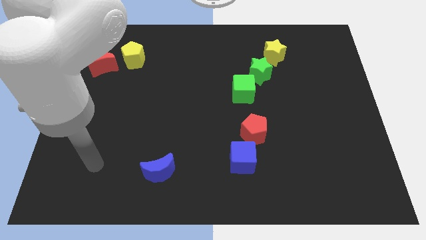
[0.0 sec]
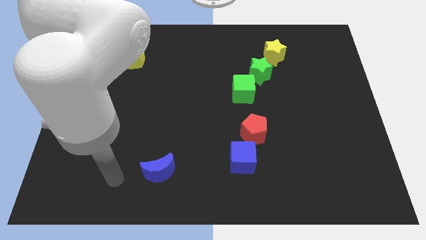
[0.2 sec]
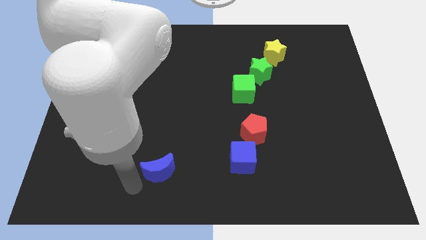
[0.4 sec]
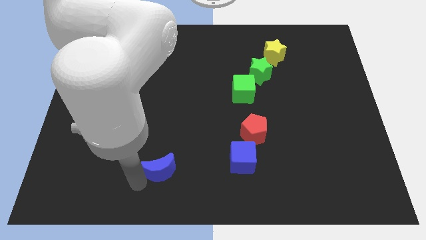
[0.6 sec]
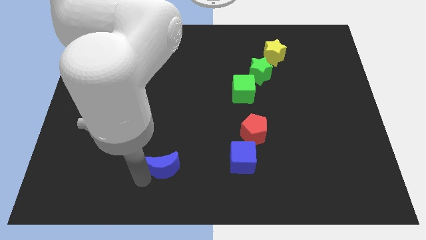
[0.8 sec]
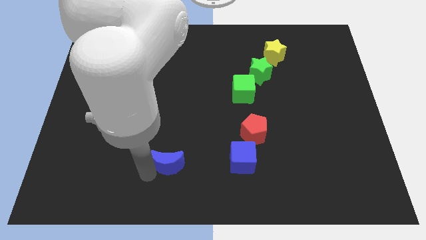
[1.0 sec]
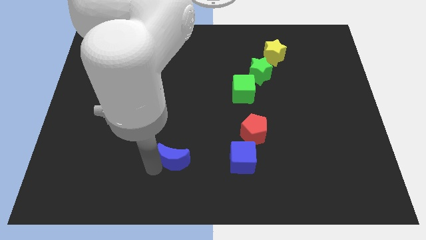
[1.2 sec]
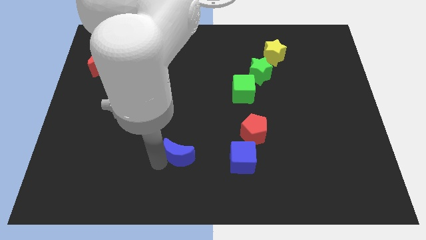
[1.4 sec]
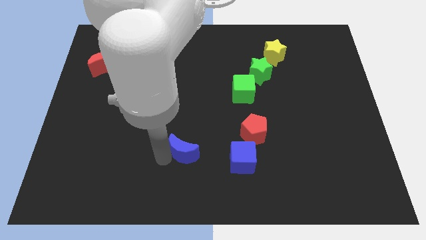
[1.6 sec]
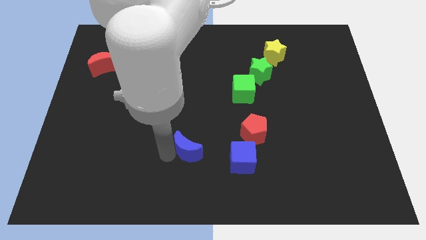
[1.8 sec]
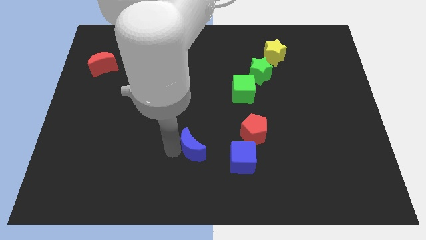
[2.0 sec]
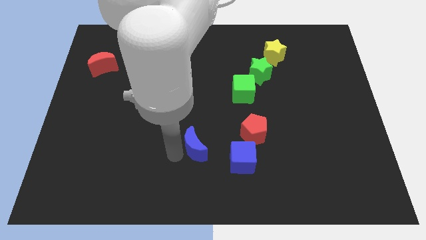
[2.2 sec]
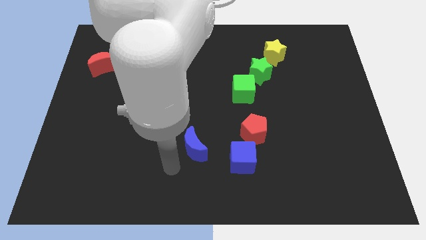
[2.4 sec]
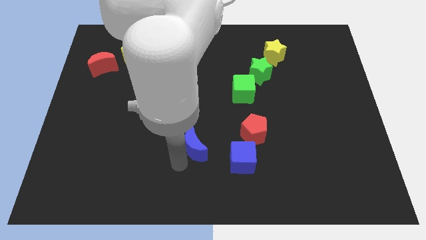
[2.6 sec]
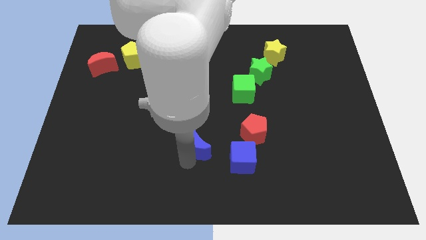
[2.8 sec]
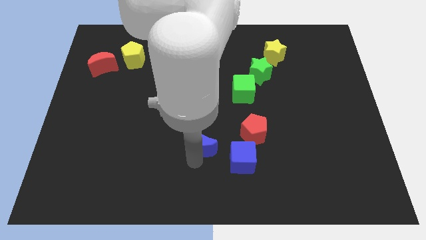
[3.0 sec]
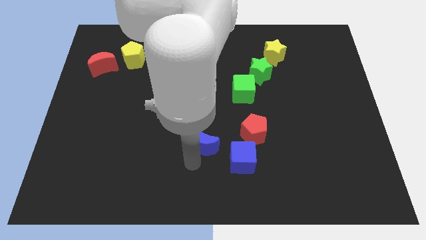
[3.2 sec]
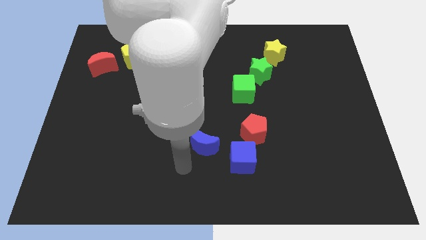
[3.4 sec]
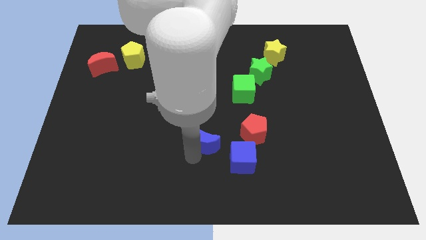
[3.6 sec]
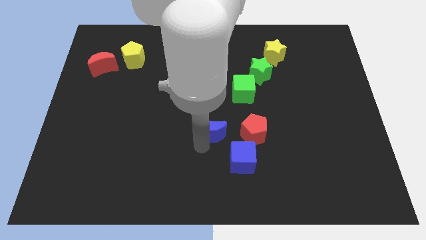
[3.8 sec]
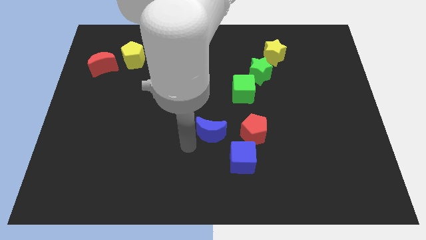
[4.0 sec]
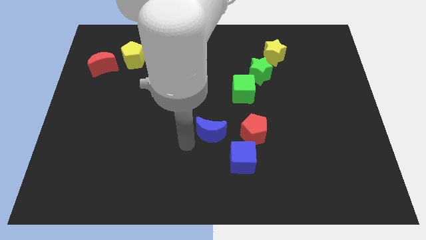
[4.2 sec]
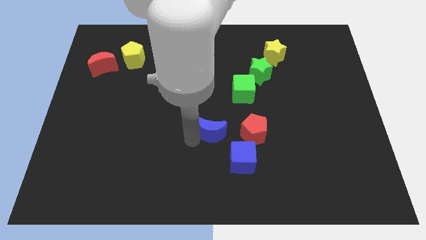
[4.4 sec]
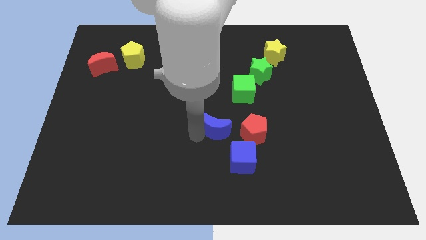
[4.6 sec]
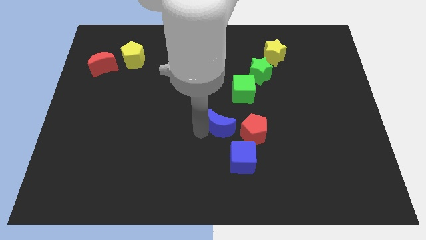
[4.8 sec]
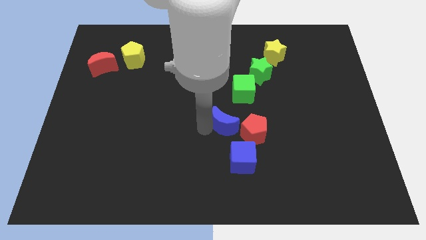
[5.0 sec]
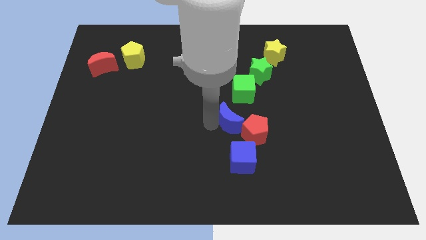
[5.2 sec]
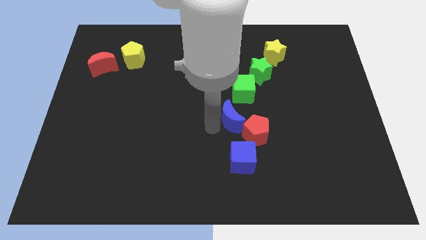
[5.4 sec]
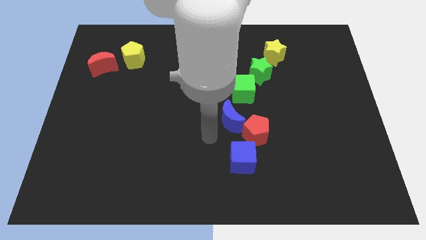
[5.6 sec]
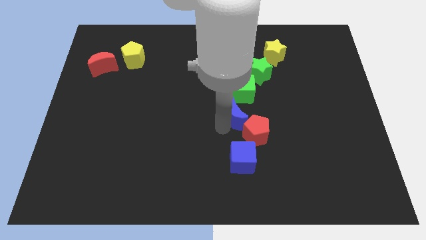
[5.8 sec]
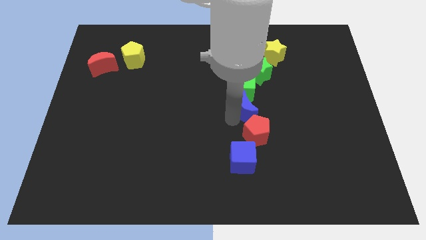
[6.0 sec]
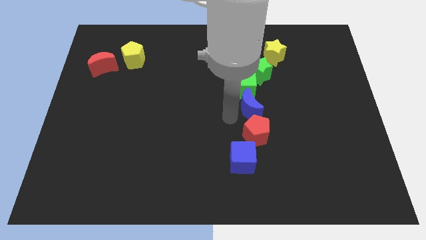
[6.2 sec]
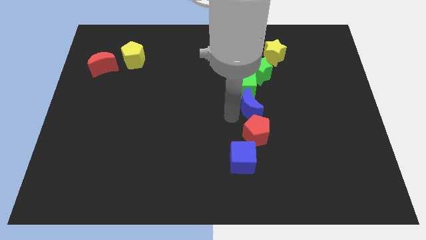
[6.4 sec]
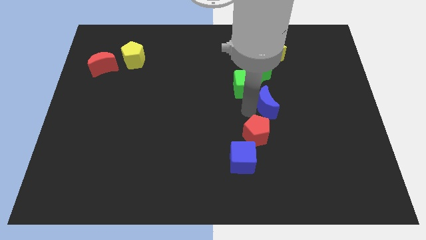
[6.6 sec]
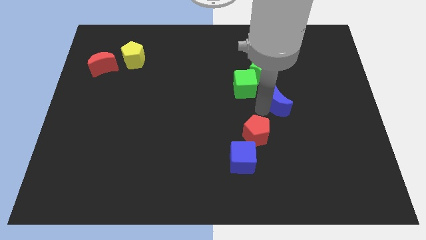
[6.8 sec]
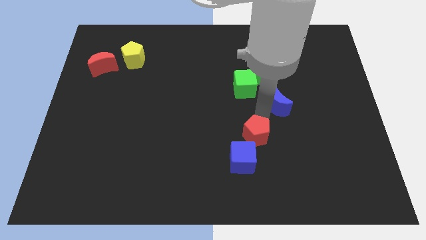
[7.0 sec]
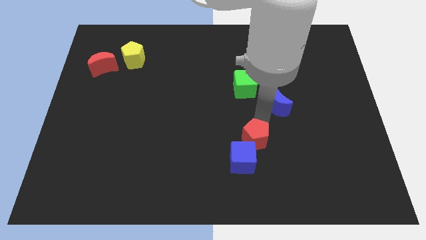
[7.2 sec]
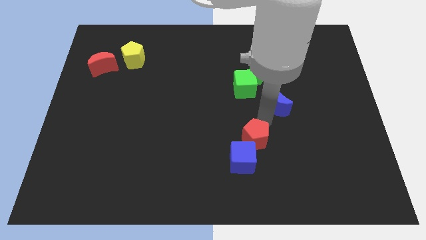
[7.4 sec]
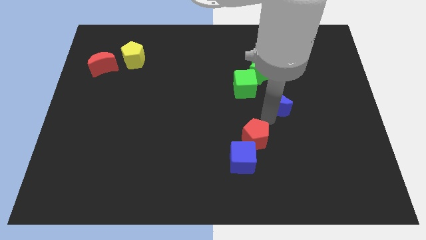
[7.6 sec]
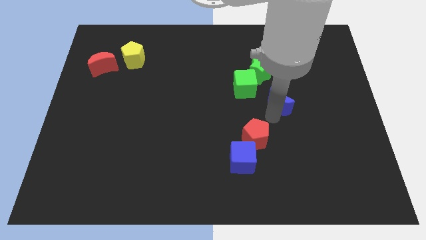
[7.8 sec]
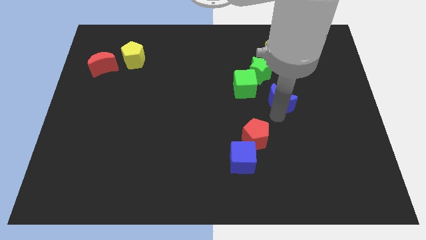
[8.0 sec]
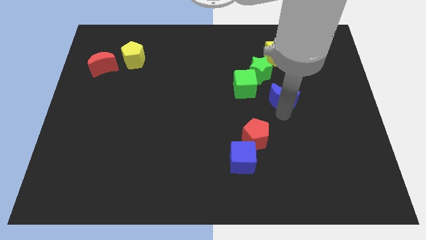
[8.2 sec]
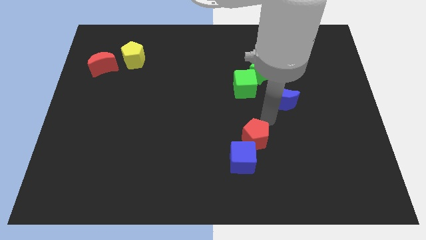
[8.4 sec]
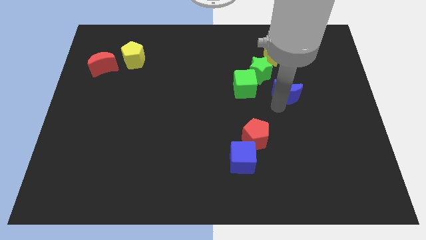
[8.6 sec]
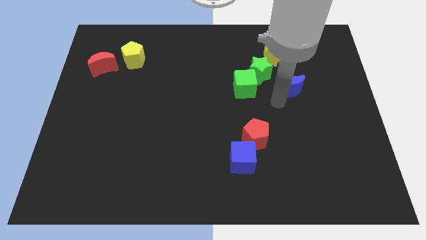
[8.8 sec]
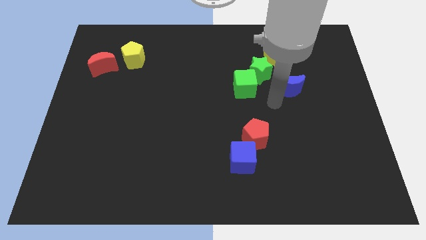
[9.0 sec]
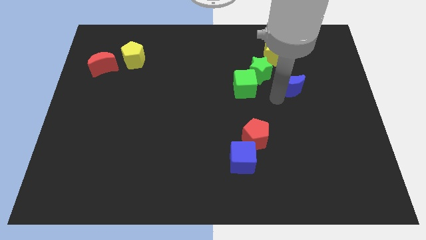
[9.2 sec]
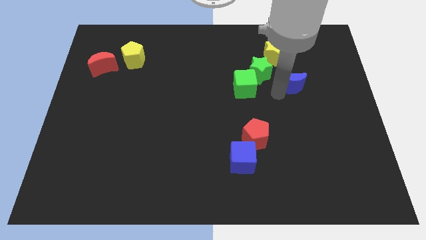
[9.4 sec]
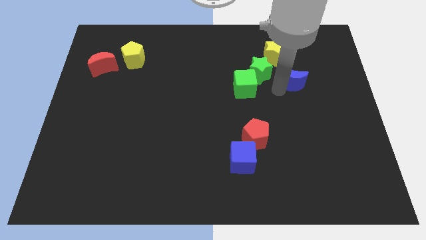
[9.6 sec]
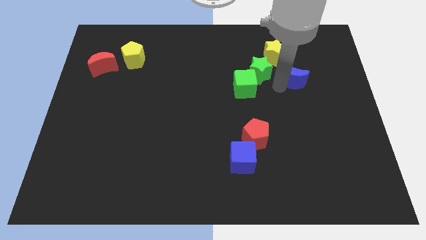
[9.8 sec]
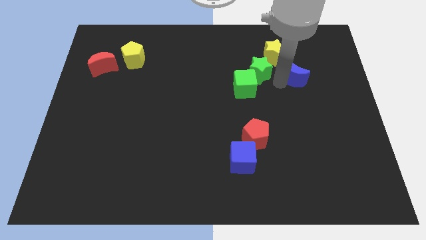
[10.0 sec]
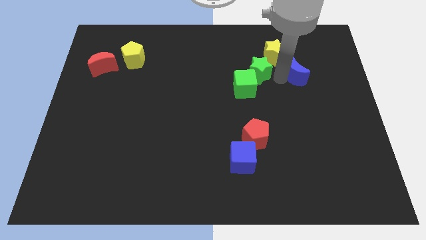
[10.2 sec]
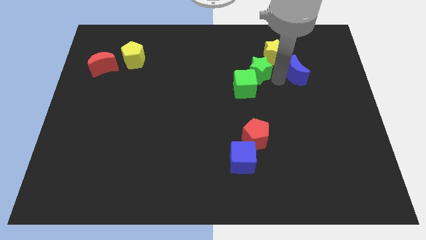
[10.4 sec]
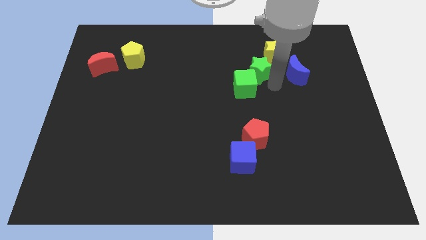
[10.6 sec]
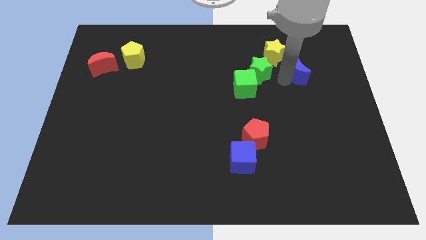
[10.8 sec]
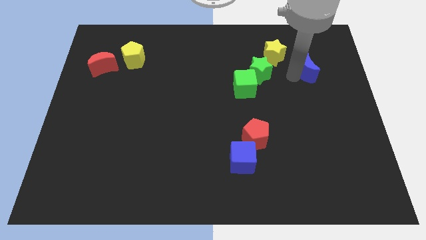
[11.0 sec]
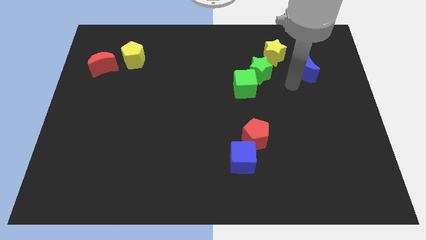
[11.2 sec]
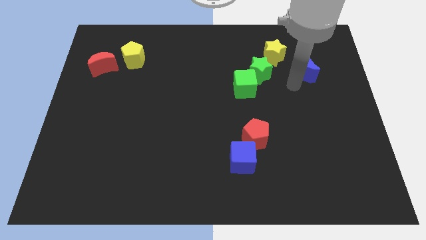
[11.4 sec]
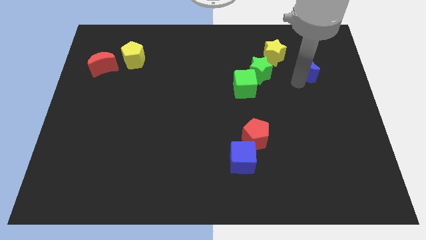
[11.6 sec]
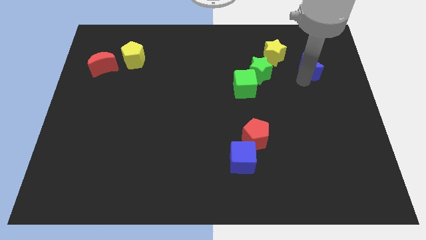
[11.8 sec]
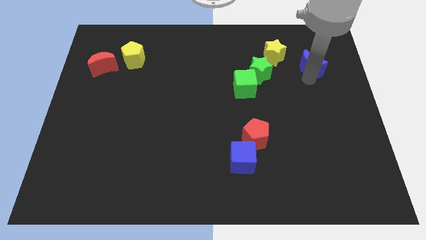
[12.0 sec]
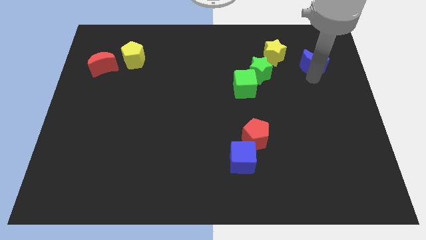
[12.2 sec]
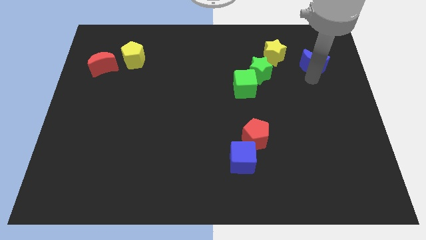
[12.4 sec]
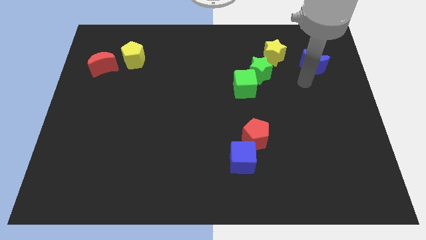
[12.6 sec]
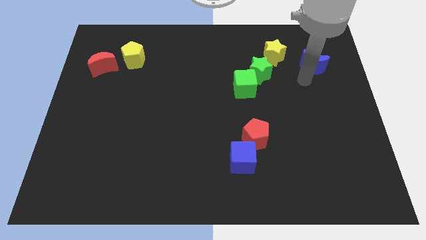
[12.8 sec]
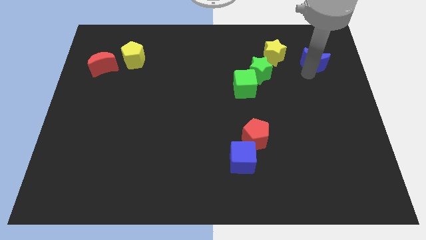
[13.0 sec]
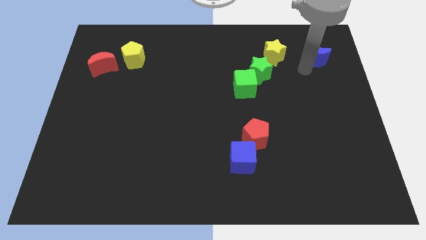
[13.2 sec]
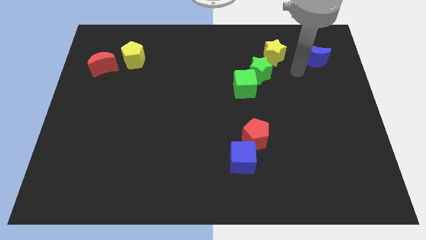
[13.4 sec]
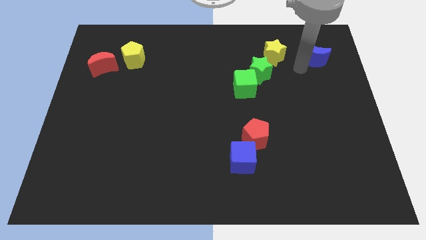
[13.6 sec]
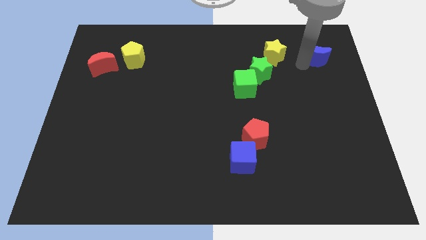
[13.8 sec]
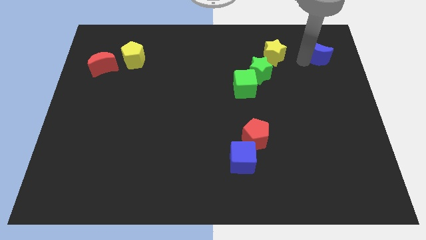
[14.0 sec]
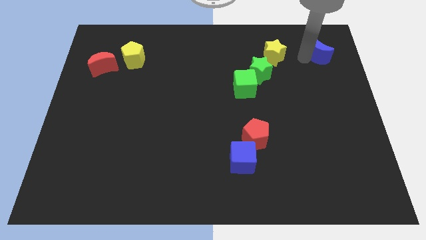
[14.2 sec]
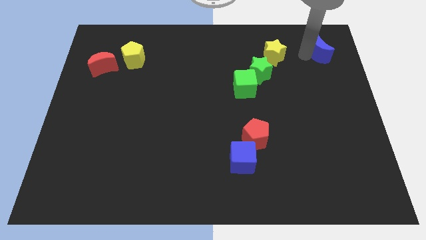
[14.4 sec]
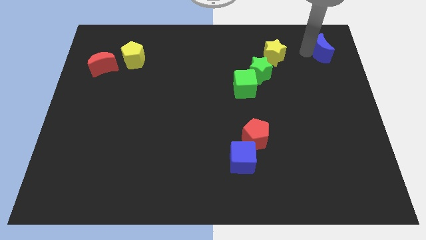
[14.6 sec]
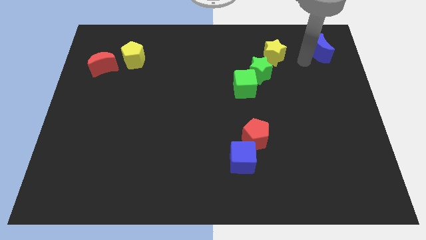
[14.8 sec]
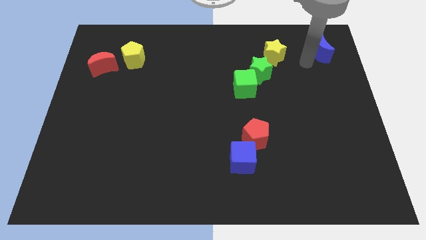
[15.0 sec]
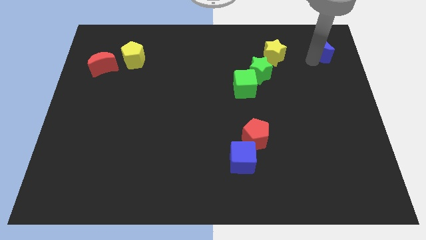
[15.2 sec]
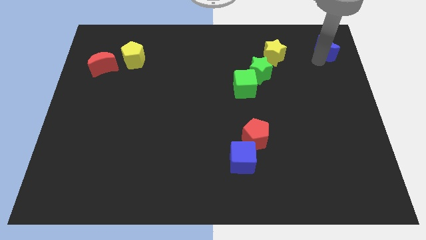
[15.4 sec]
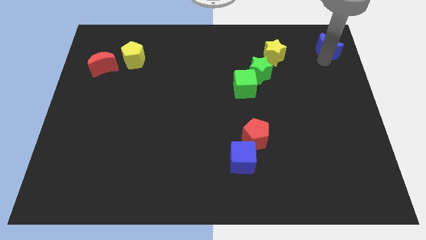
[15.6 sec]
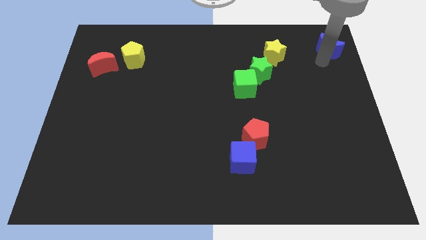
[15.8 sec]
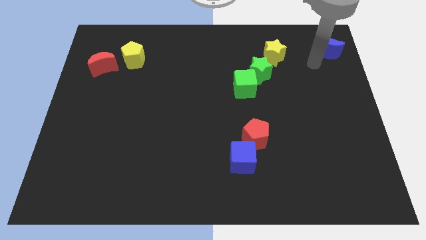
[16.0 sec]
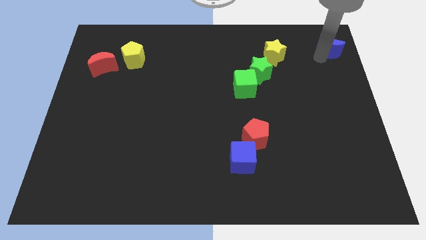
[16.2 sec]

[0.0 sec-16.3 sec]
slide the blue moon to the top right

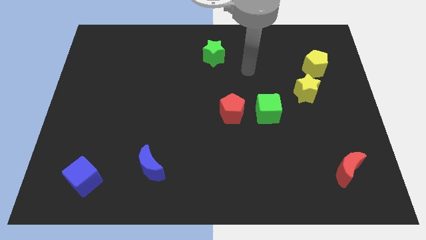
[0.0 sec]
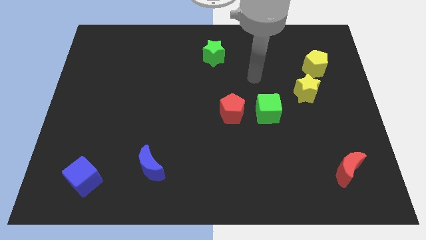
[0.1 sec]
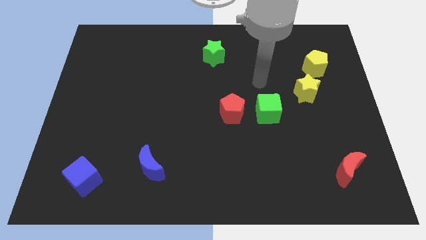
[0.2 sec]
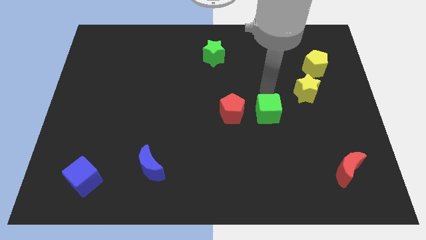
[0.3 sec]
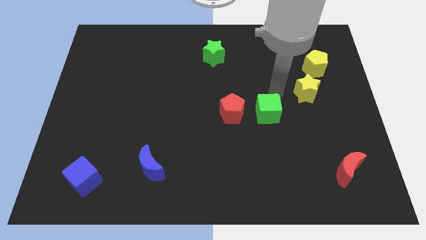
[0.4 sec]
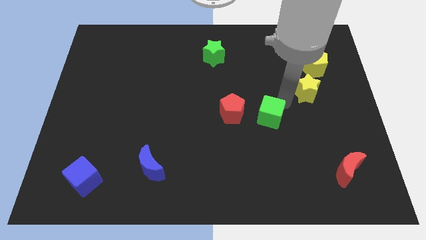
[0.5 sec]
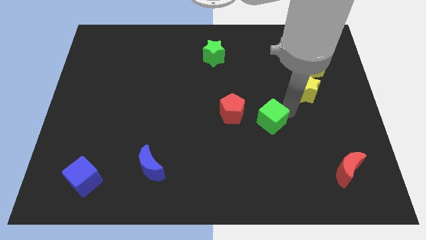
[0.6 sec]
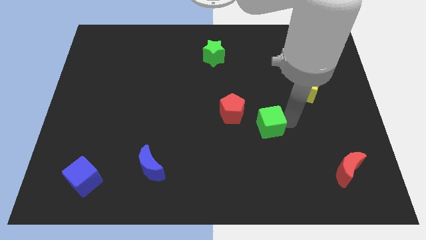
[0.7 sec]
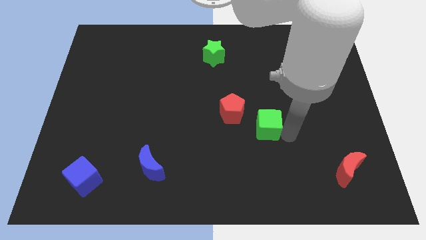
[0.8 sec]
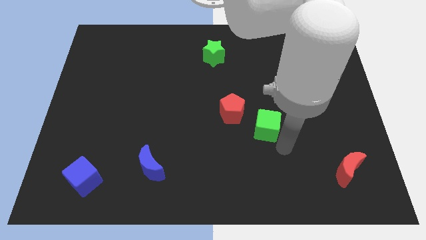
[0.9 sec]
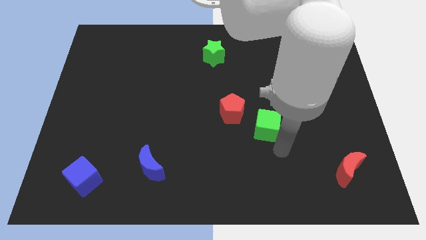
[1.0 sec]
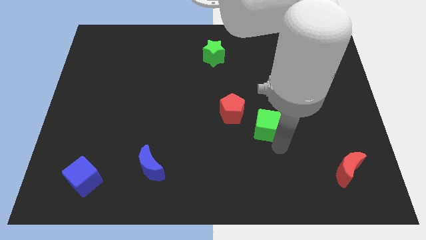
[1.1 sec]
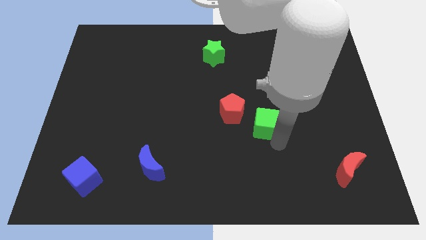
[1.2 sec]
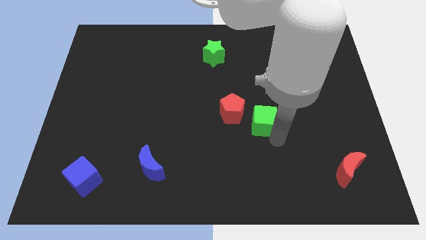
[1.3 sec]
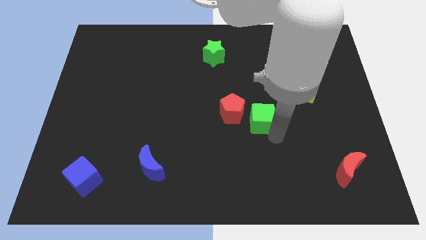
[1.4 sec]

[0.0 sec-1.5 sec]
slide the green cube to the middle of the board
